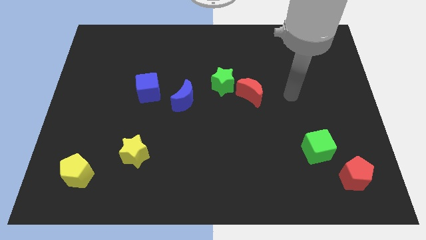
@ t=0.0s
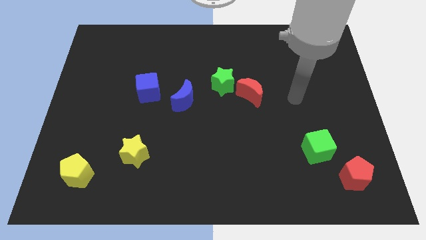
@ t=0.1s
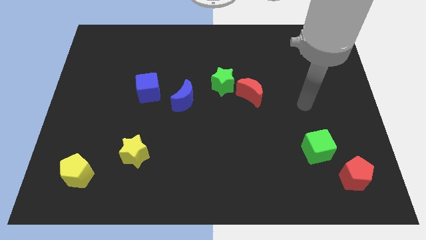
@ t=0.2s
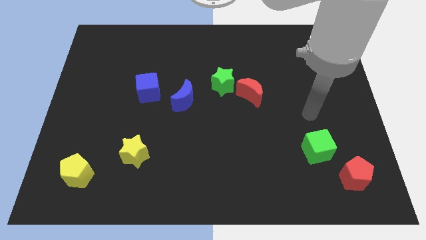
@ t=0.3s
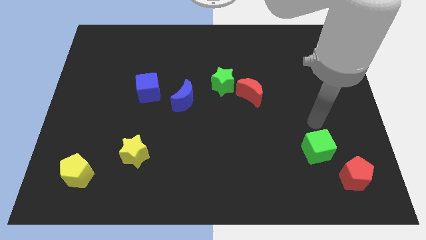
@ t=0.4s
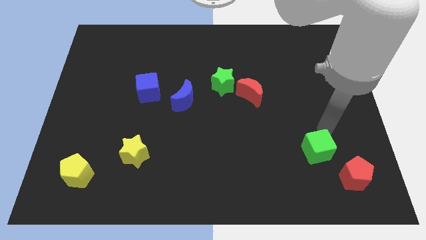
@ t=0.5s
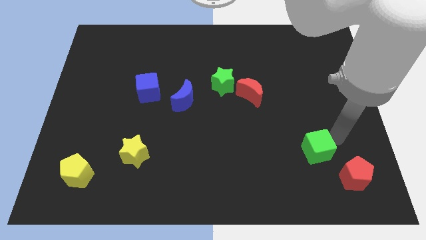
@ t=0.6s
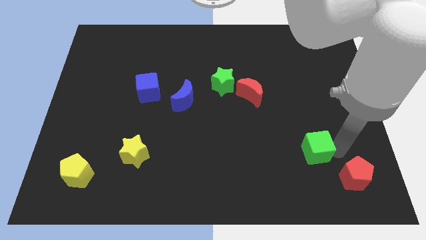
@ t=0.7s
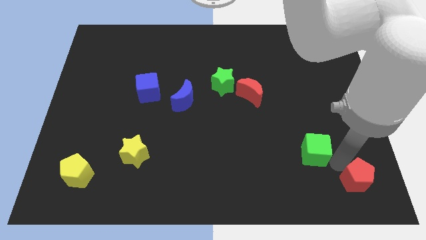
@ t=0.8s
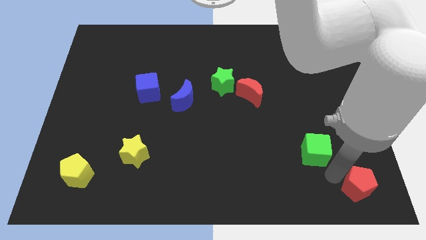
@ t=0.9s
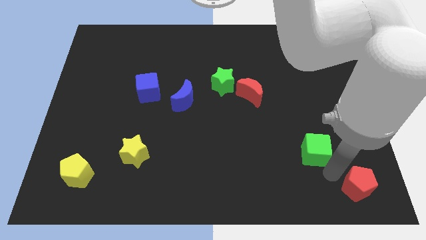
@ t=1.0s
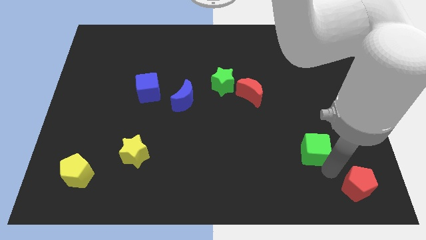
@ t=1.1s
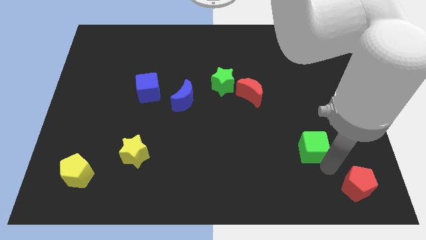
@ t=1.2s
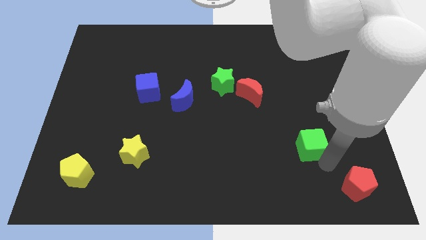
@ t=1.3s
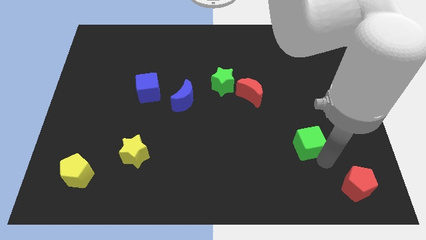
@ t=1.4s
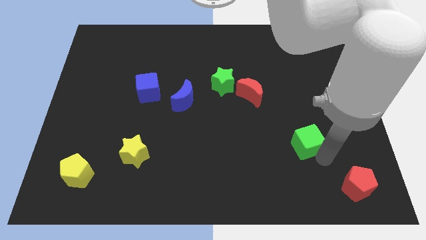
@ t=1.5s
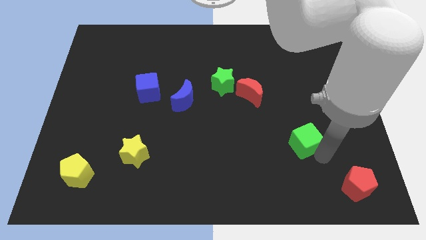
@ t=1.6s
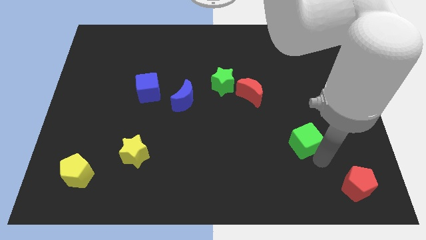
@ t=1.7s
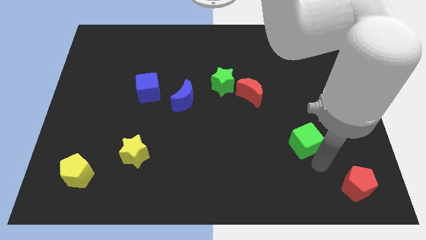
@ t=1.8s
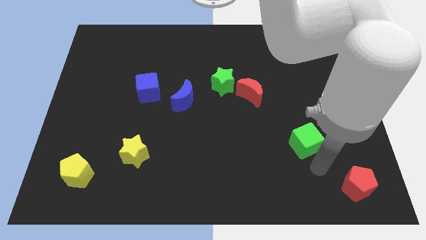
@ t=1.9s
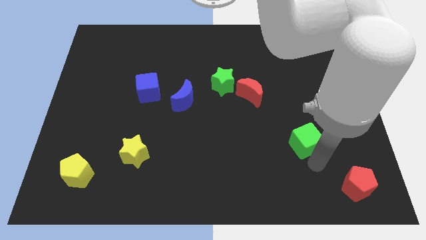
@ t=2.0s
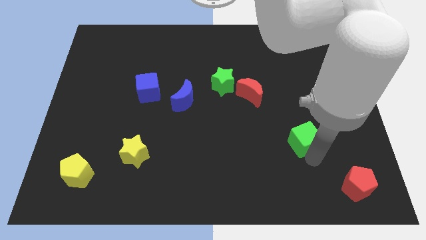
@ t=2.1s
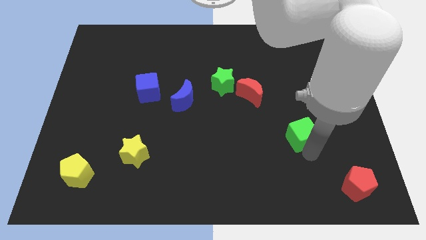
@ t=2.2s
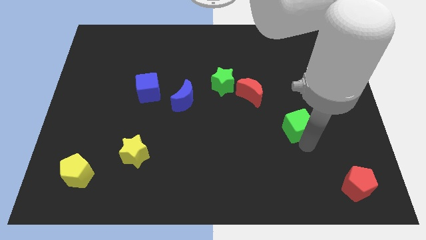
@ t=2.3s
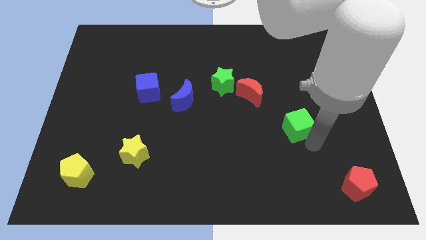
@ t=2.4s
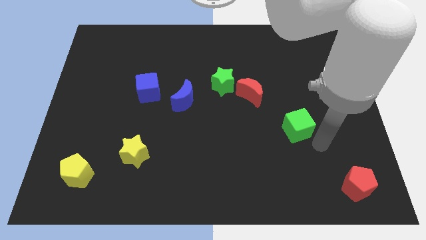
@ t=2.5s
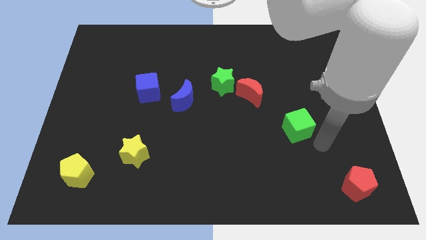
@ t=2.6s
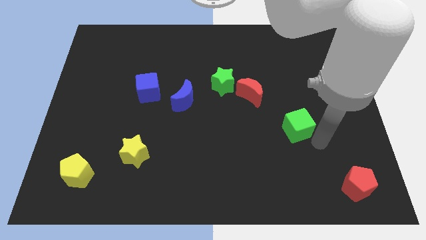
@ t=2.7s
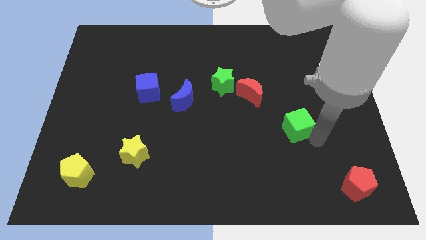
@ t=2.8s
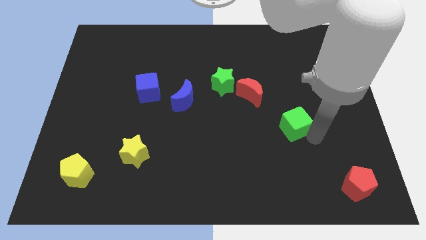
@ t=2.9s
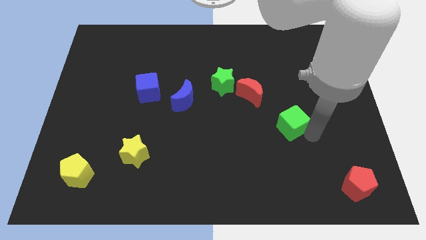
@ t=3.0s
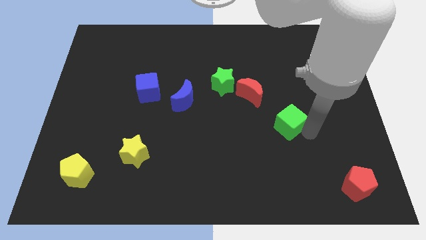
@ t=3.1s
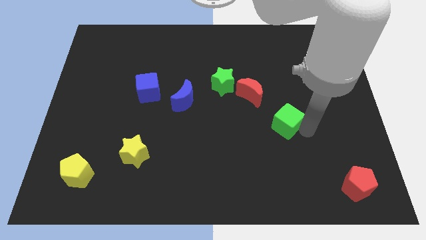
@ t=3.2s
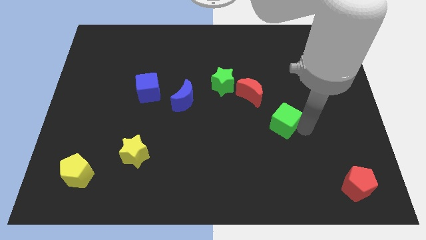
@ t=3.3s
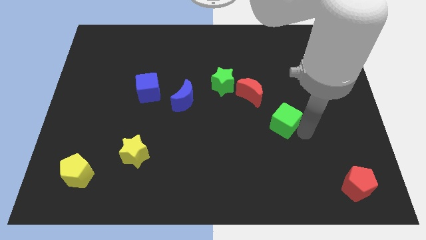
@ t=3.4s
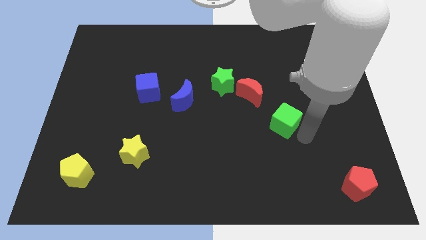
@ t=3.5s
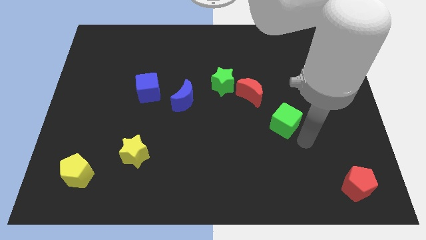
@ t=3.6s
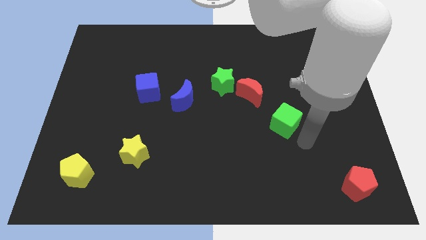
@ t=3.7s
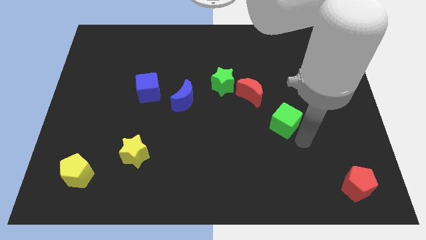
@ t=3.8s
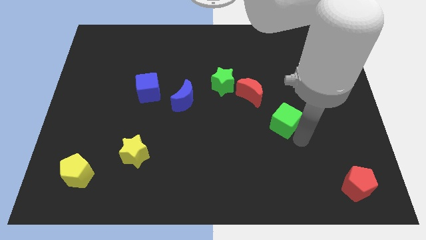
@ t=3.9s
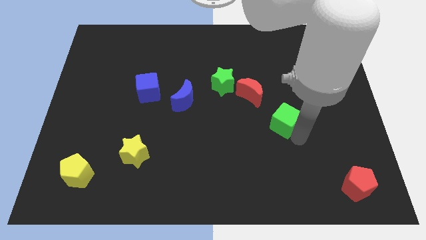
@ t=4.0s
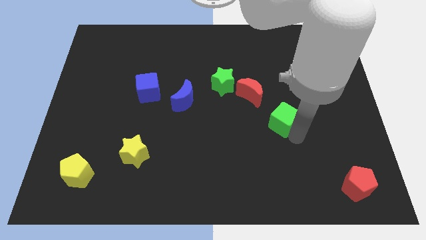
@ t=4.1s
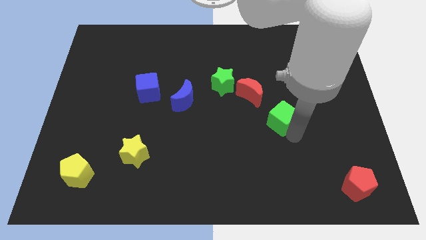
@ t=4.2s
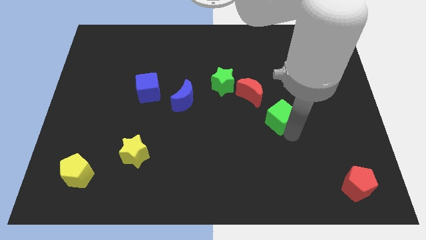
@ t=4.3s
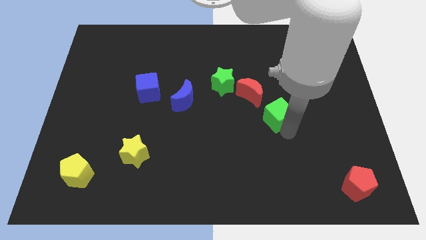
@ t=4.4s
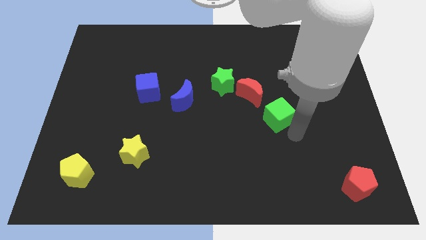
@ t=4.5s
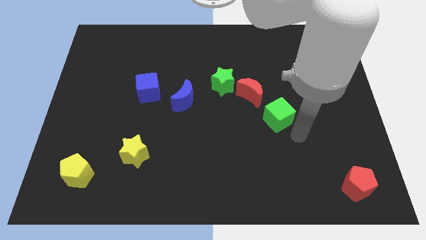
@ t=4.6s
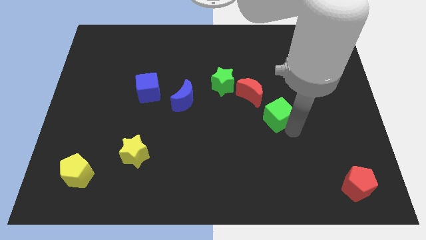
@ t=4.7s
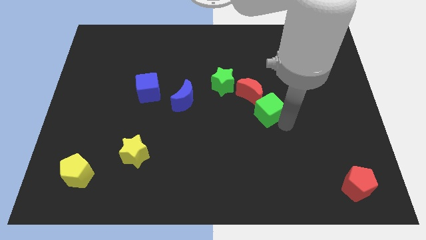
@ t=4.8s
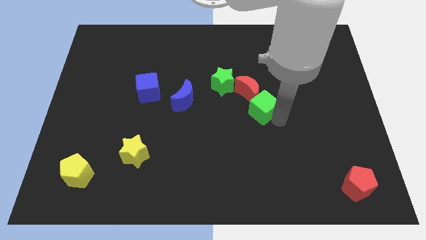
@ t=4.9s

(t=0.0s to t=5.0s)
put the green cube to the red moon
